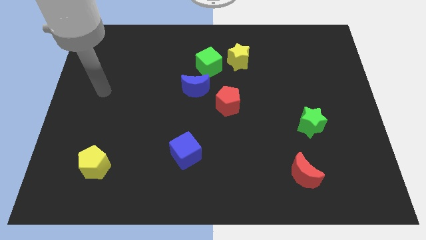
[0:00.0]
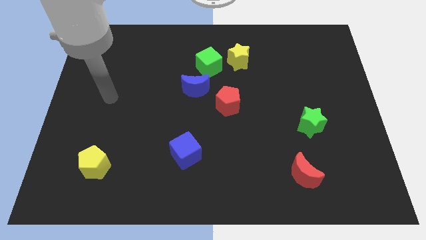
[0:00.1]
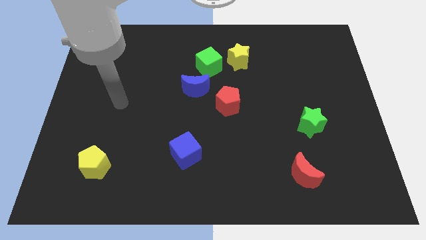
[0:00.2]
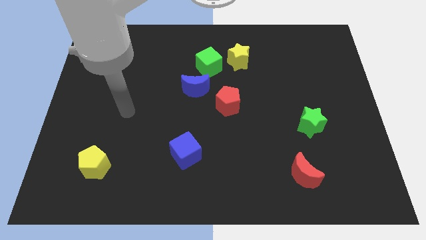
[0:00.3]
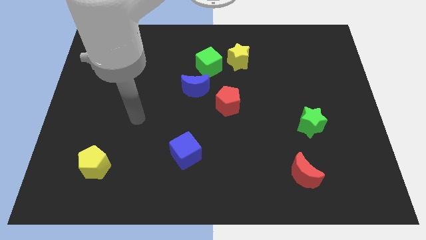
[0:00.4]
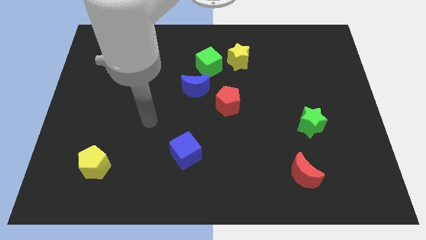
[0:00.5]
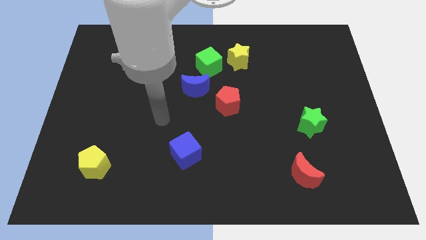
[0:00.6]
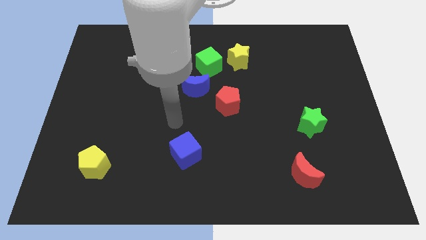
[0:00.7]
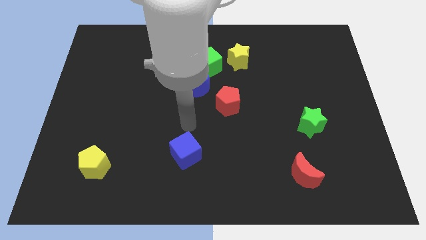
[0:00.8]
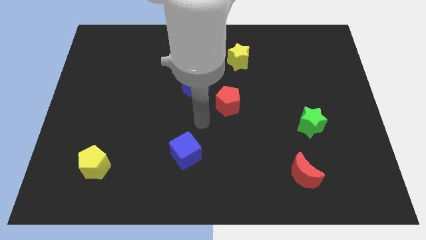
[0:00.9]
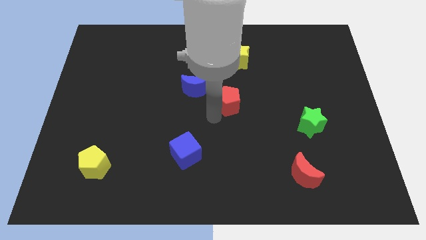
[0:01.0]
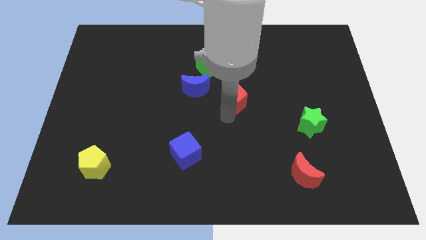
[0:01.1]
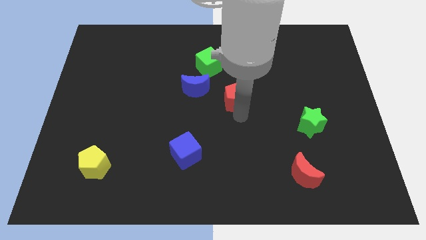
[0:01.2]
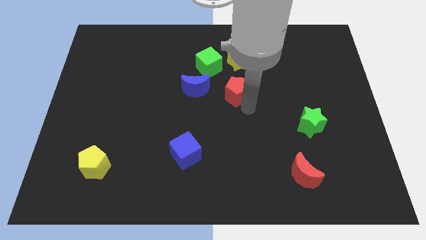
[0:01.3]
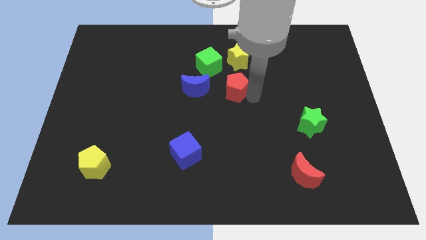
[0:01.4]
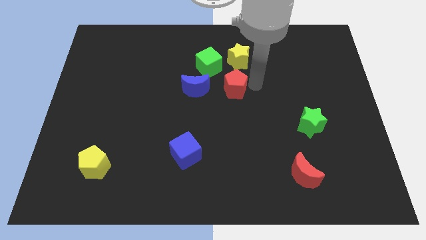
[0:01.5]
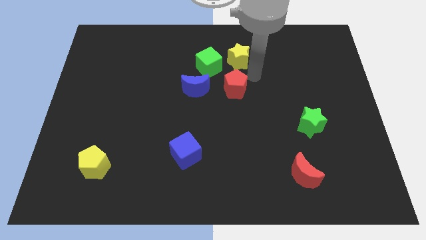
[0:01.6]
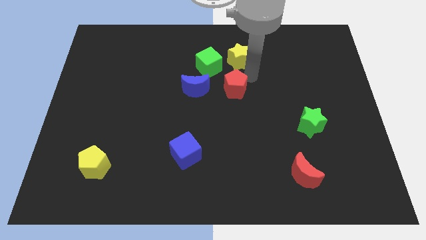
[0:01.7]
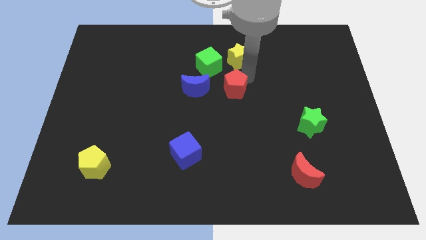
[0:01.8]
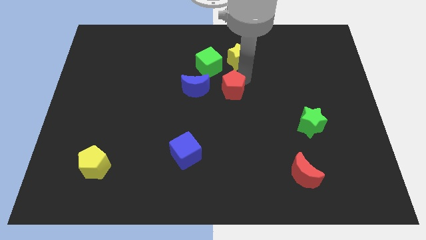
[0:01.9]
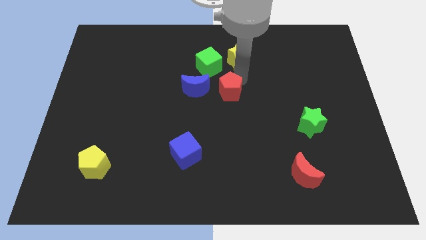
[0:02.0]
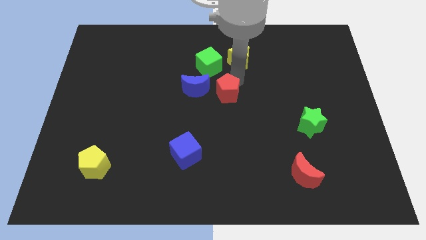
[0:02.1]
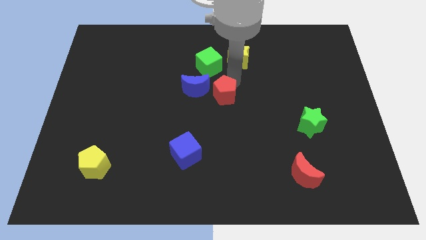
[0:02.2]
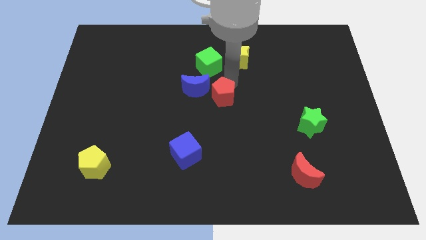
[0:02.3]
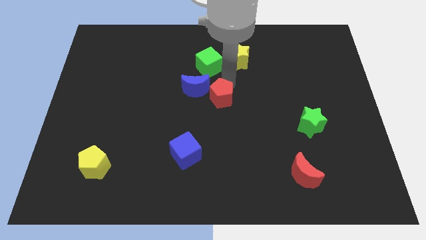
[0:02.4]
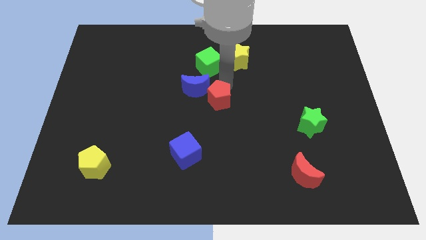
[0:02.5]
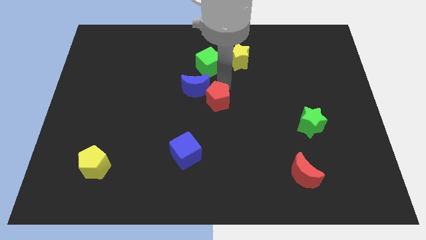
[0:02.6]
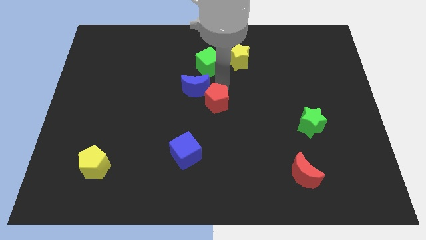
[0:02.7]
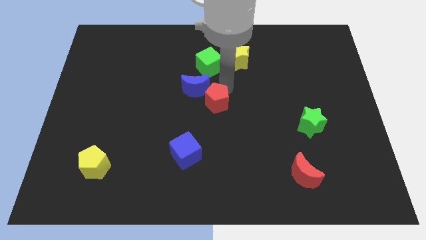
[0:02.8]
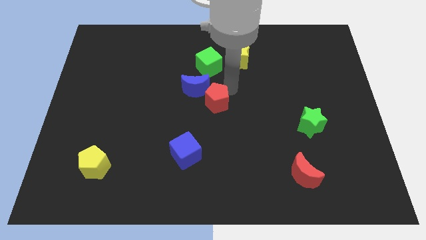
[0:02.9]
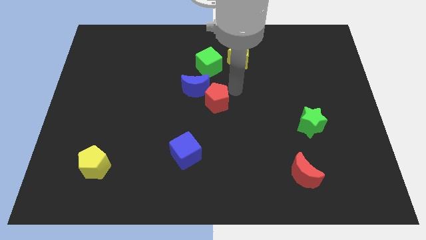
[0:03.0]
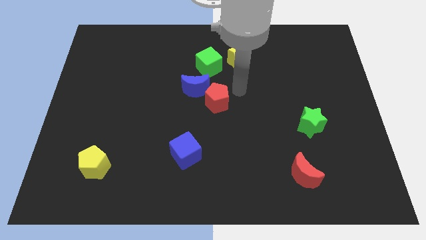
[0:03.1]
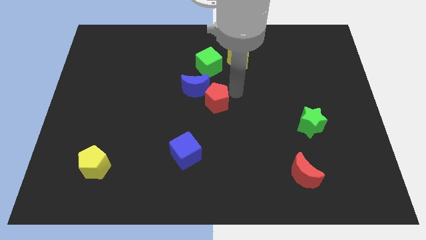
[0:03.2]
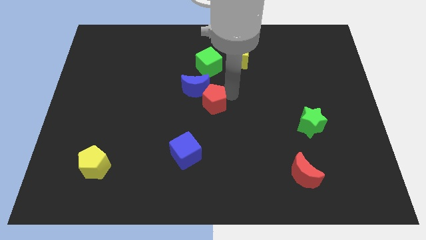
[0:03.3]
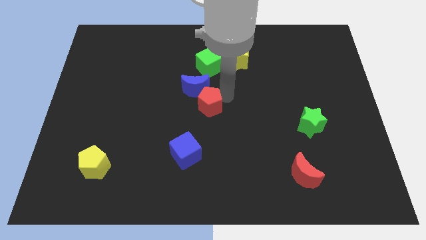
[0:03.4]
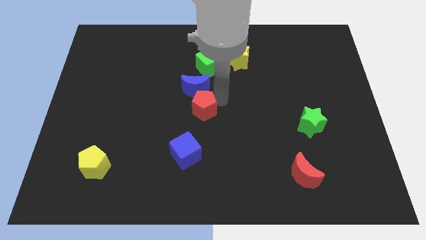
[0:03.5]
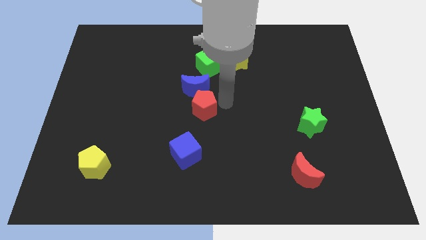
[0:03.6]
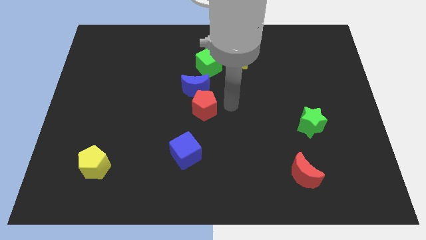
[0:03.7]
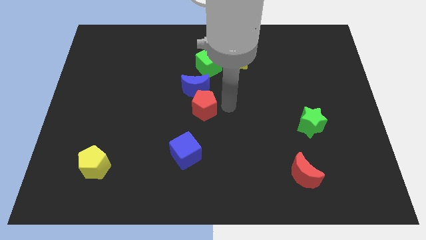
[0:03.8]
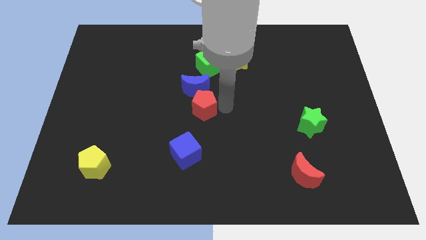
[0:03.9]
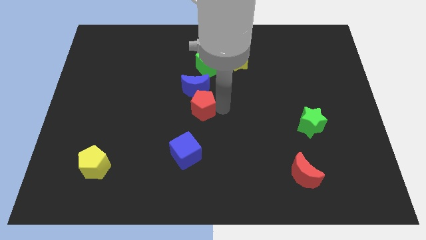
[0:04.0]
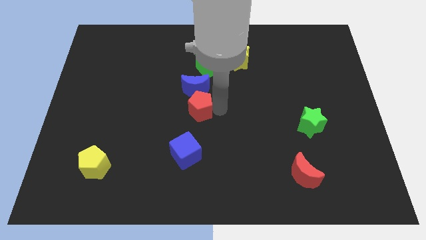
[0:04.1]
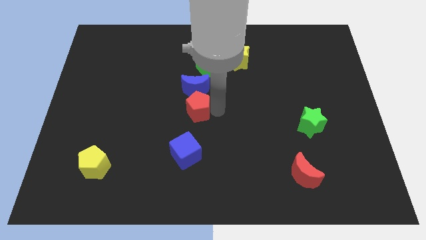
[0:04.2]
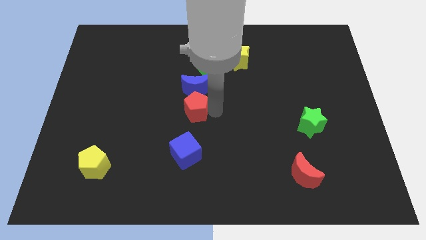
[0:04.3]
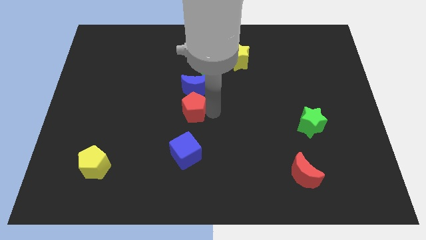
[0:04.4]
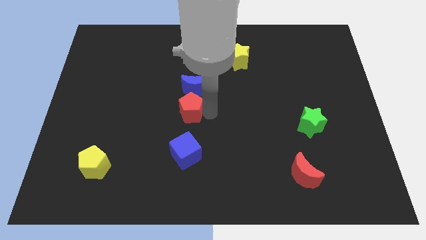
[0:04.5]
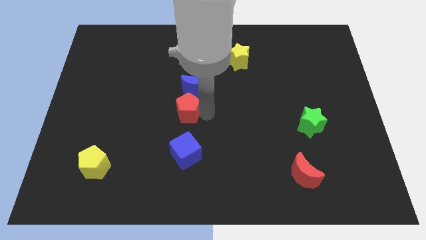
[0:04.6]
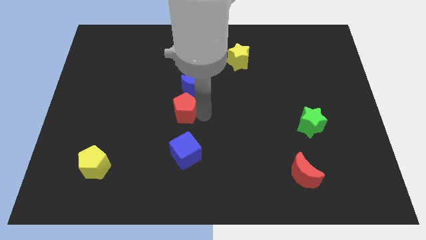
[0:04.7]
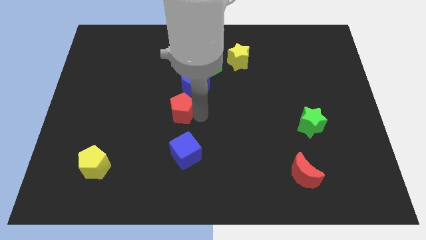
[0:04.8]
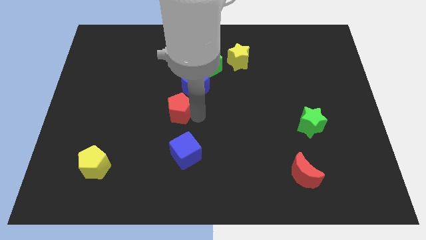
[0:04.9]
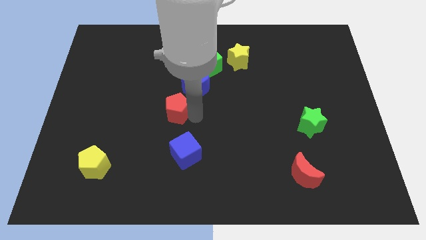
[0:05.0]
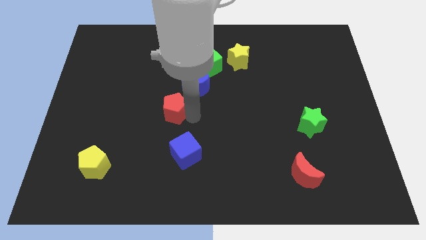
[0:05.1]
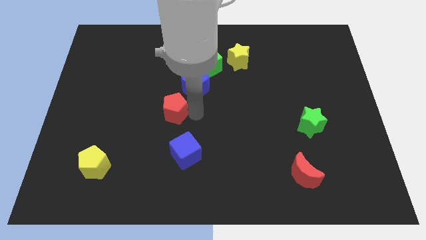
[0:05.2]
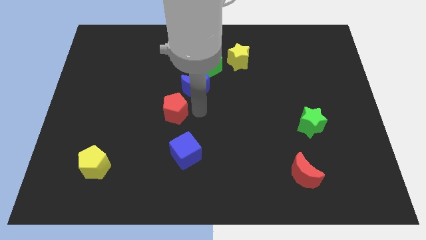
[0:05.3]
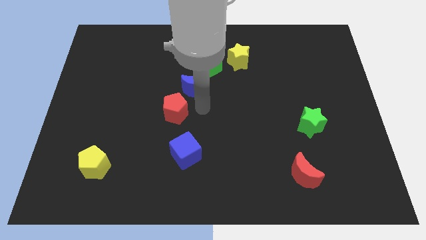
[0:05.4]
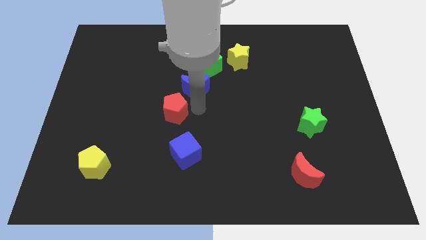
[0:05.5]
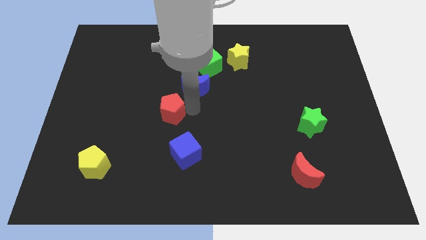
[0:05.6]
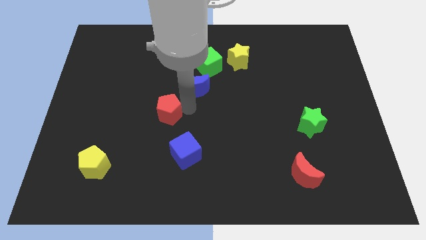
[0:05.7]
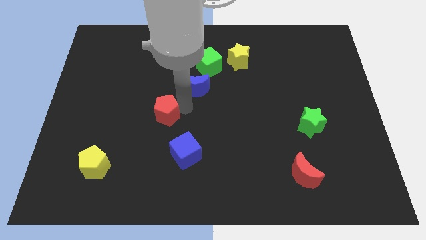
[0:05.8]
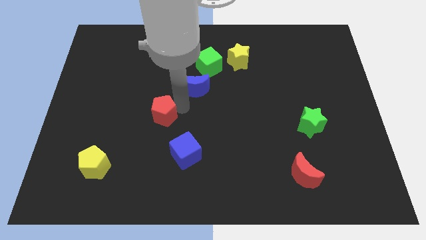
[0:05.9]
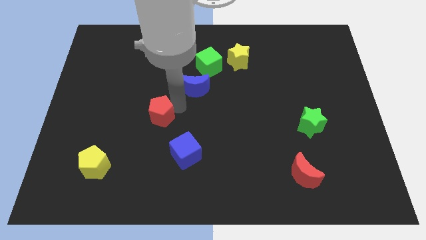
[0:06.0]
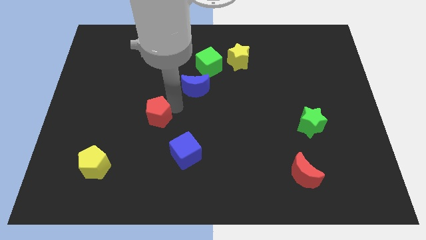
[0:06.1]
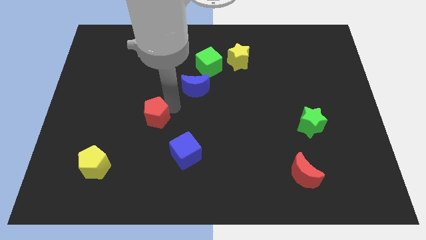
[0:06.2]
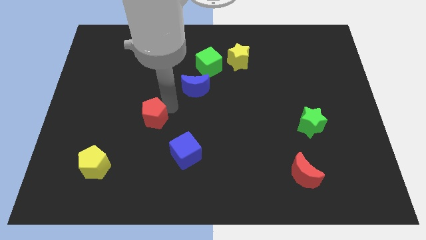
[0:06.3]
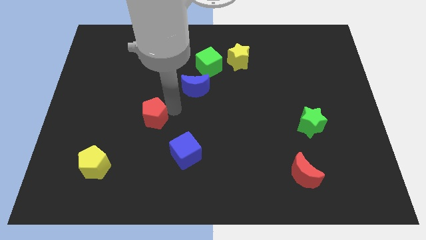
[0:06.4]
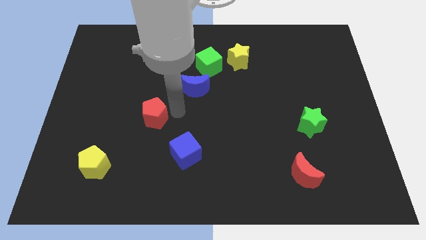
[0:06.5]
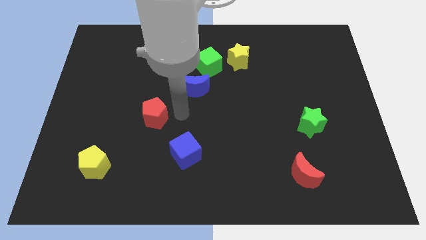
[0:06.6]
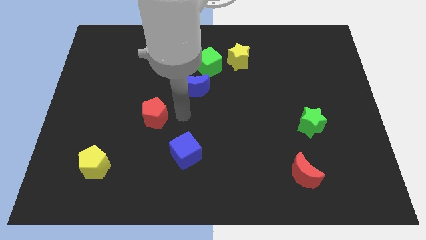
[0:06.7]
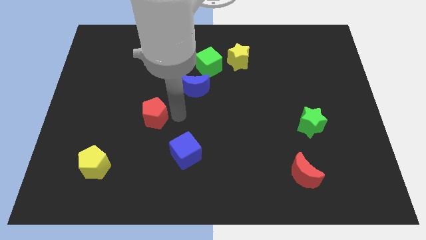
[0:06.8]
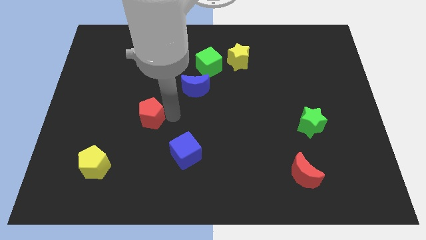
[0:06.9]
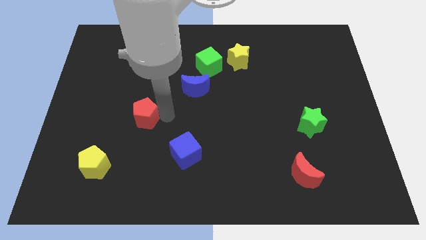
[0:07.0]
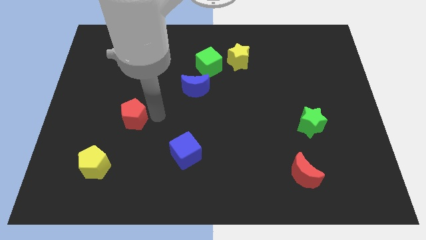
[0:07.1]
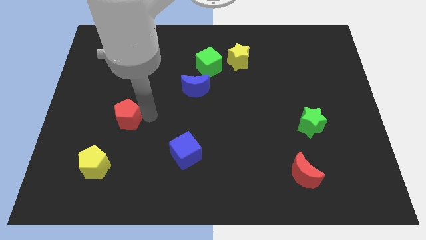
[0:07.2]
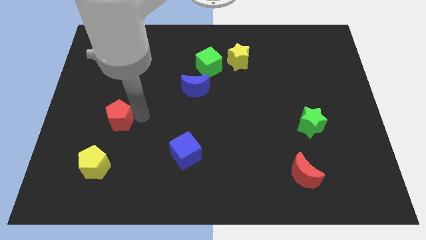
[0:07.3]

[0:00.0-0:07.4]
push the red pentagon to the top of the yellow pentagon
